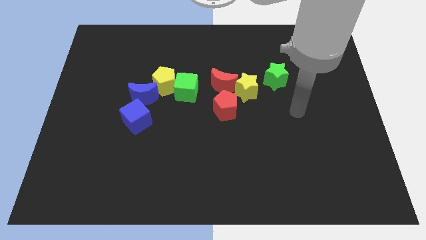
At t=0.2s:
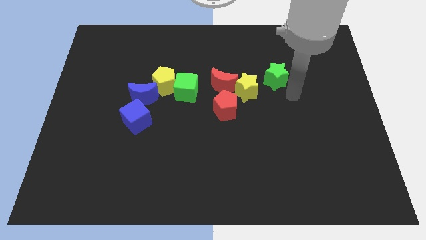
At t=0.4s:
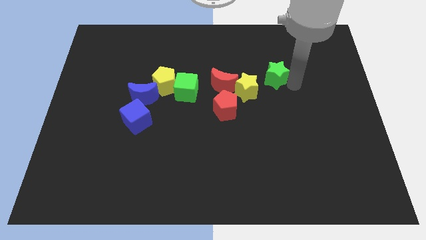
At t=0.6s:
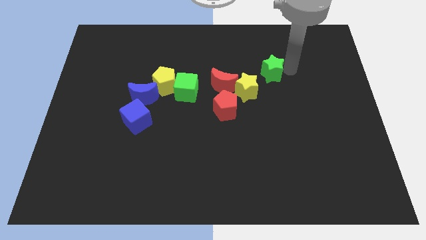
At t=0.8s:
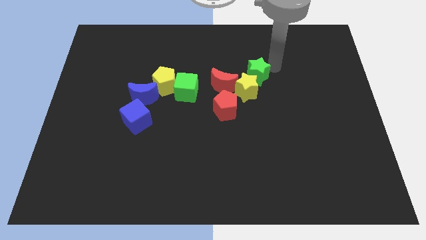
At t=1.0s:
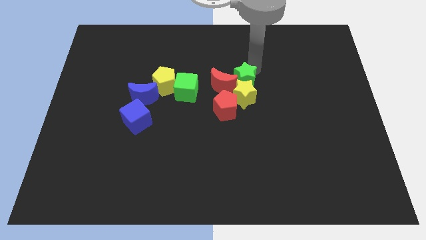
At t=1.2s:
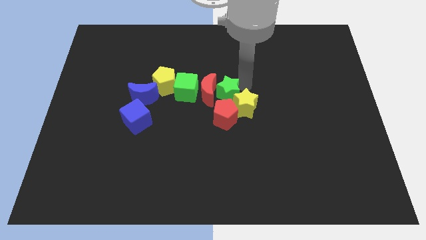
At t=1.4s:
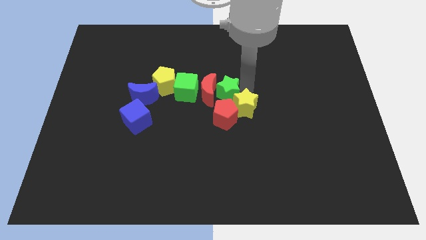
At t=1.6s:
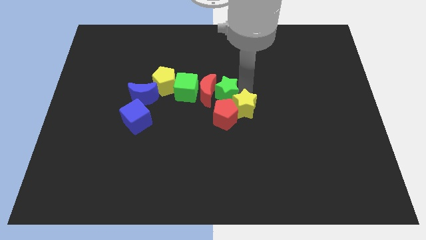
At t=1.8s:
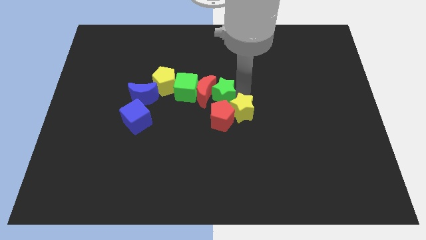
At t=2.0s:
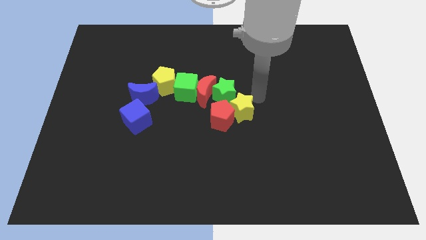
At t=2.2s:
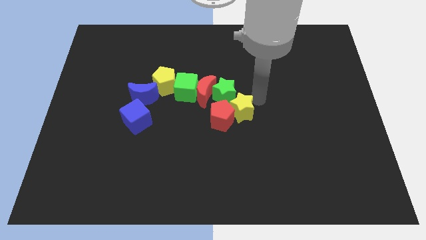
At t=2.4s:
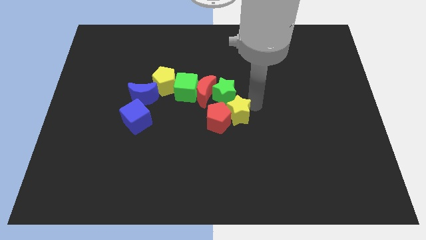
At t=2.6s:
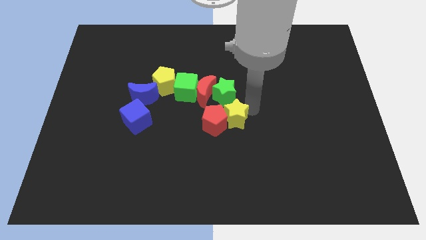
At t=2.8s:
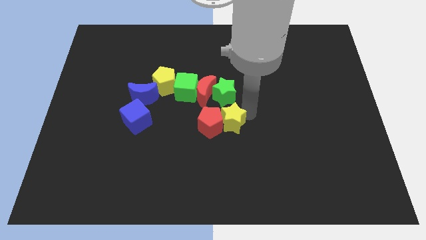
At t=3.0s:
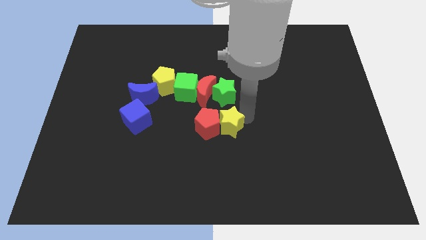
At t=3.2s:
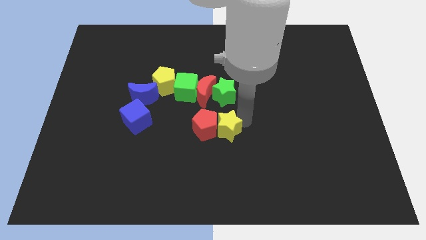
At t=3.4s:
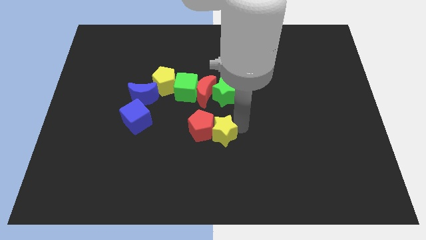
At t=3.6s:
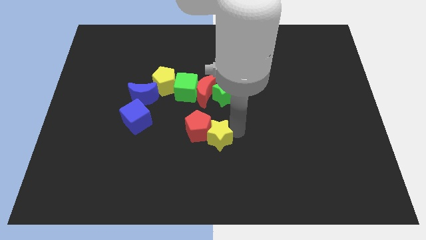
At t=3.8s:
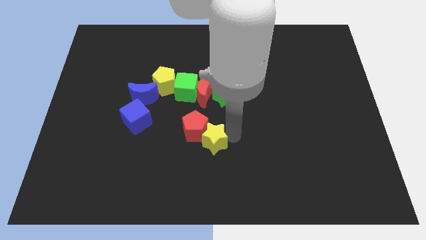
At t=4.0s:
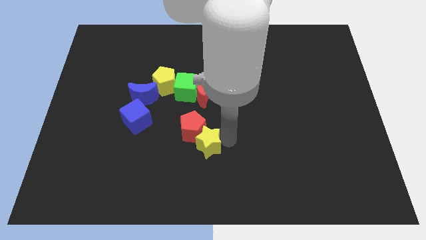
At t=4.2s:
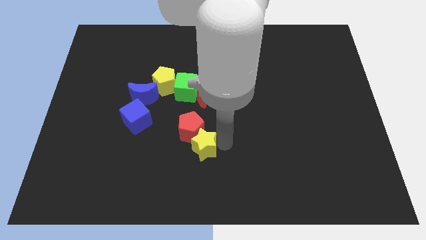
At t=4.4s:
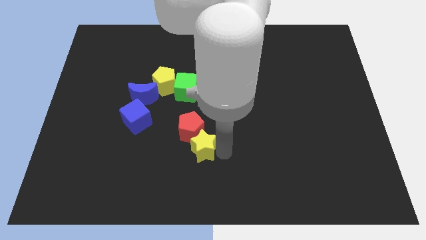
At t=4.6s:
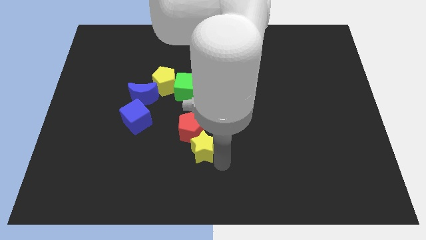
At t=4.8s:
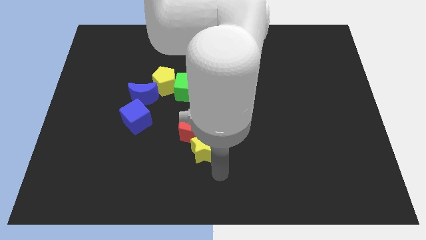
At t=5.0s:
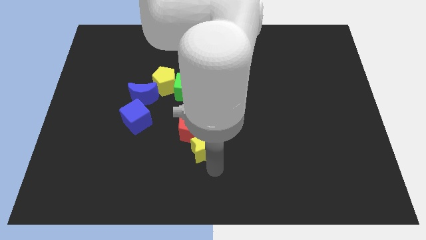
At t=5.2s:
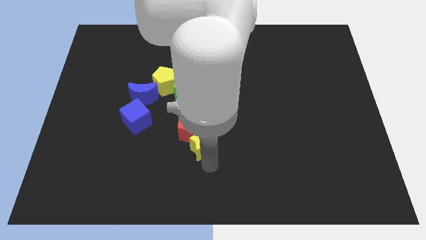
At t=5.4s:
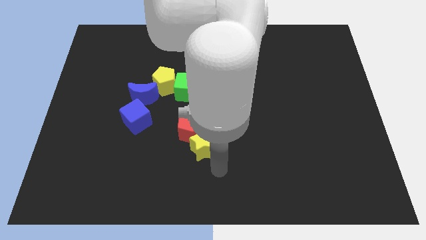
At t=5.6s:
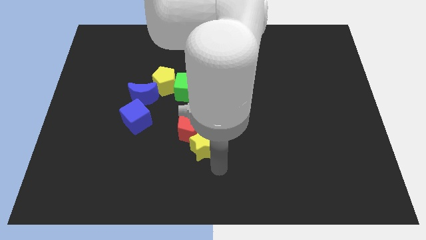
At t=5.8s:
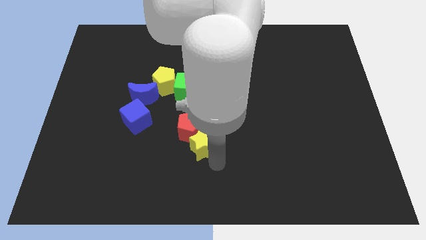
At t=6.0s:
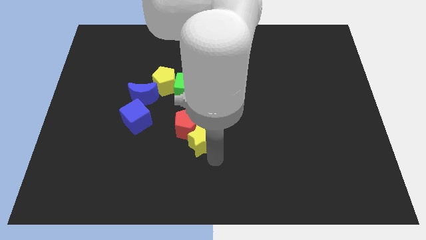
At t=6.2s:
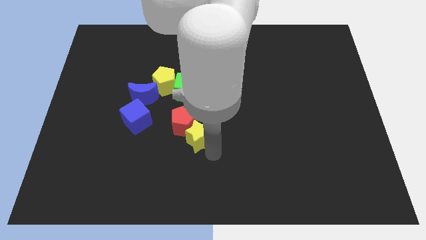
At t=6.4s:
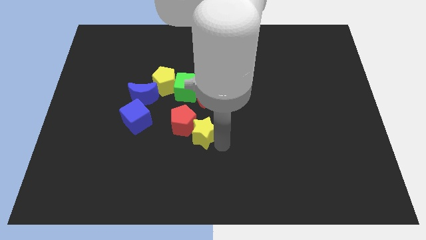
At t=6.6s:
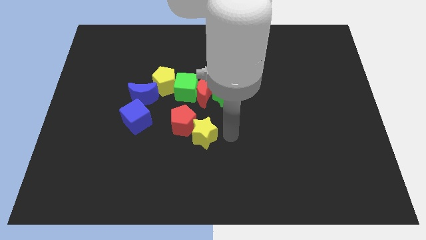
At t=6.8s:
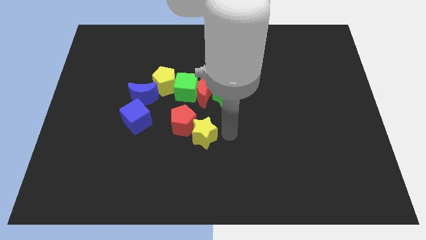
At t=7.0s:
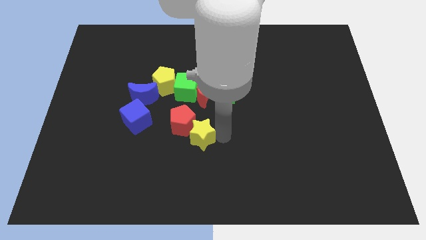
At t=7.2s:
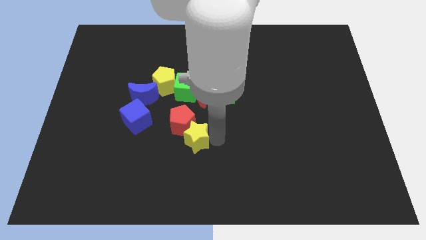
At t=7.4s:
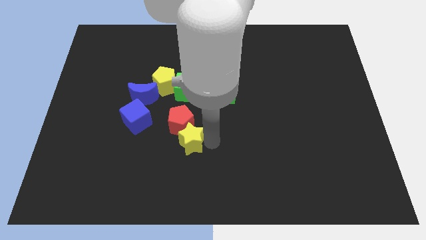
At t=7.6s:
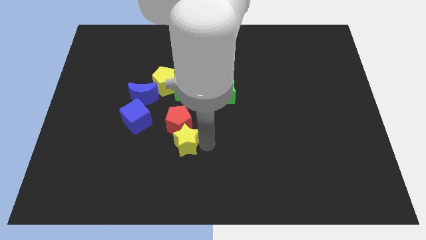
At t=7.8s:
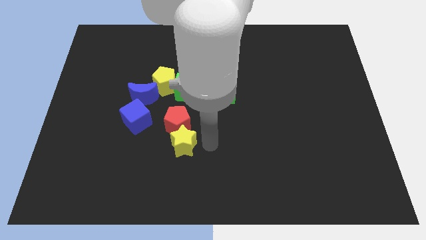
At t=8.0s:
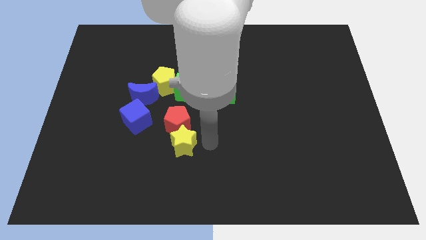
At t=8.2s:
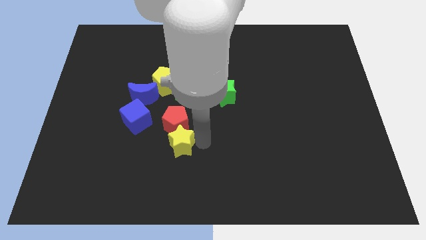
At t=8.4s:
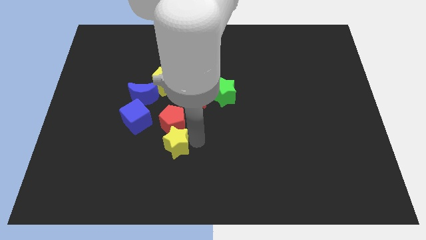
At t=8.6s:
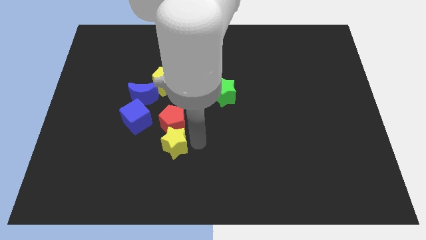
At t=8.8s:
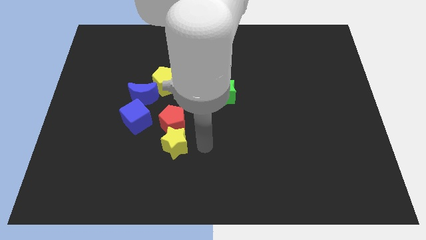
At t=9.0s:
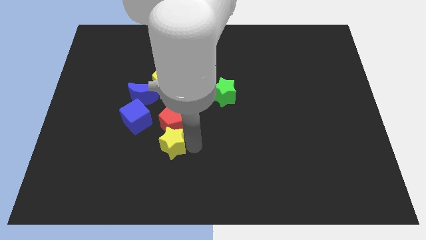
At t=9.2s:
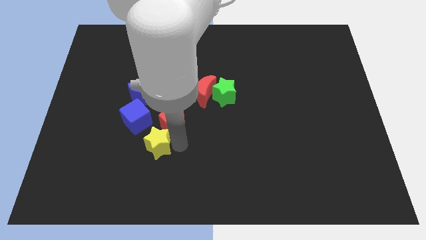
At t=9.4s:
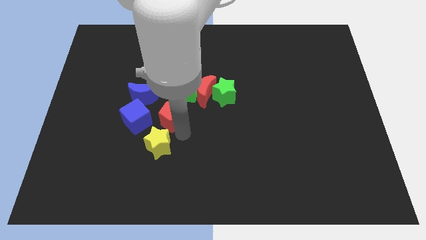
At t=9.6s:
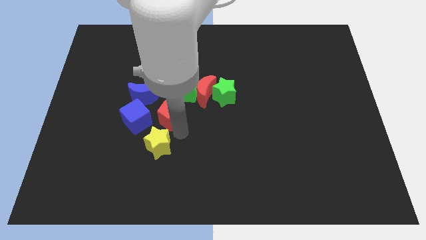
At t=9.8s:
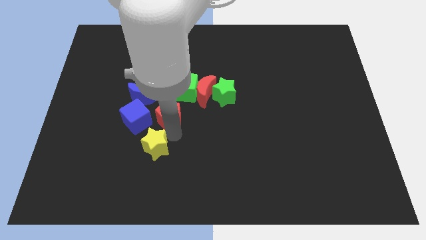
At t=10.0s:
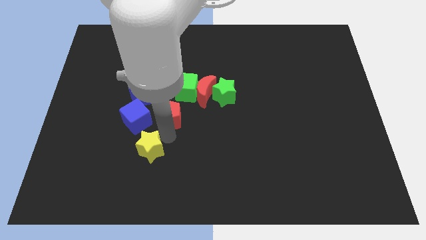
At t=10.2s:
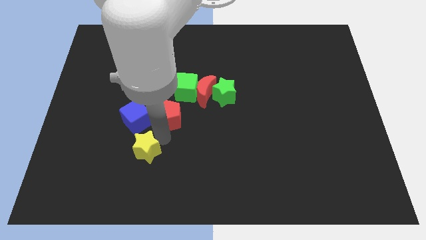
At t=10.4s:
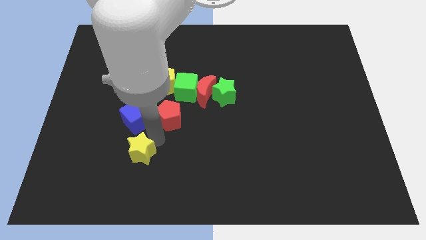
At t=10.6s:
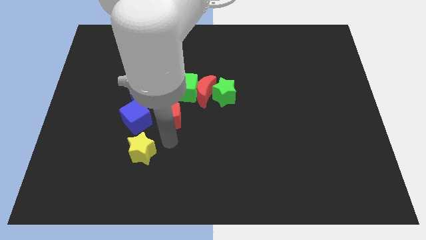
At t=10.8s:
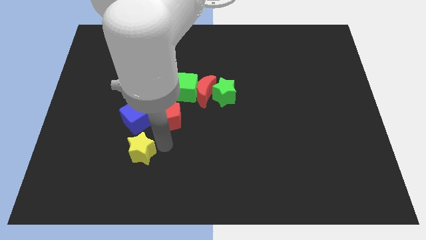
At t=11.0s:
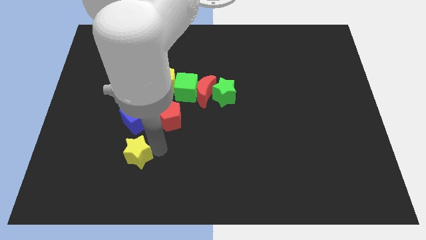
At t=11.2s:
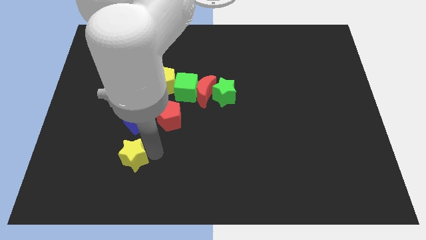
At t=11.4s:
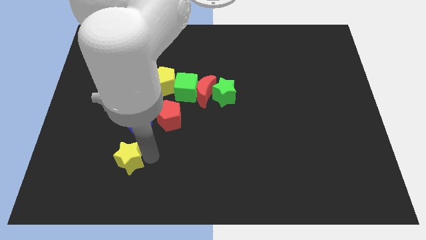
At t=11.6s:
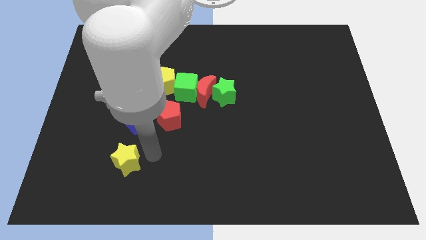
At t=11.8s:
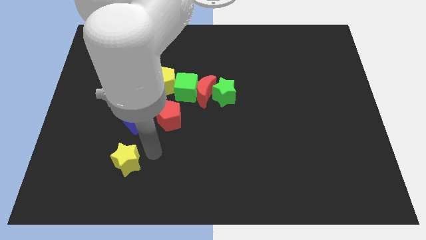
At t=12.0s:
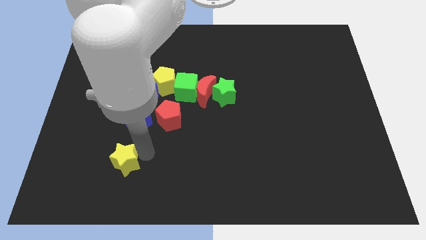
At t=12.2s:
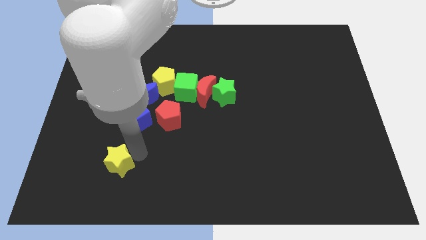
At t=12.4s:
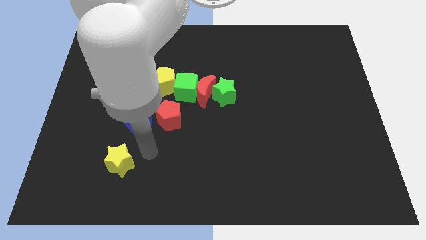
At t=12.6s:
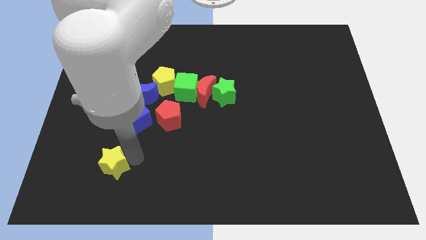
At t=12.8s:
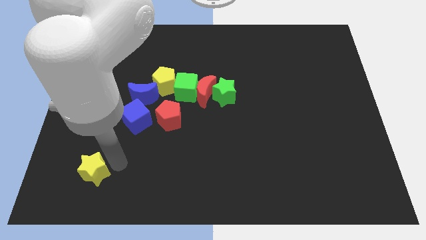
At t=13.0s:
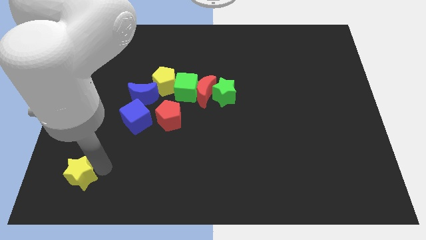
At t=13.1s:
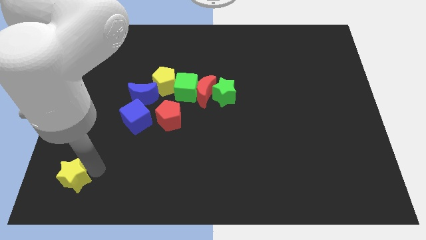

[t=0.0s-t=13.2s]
move the yellow star to the bottom left

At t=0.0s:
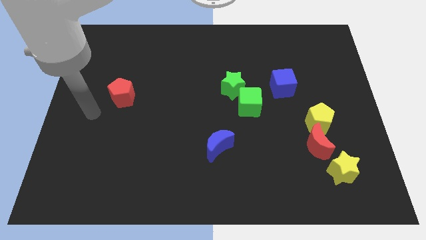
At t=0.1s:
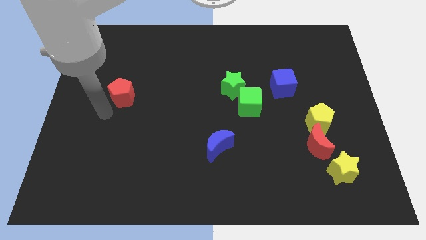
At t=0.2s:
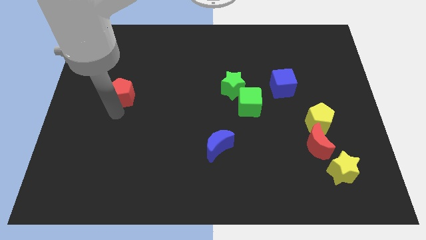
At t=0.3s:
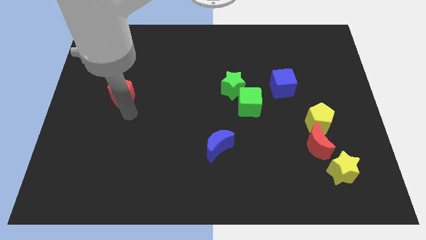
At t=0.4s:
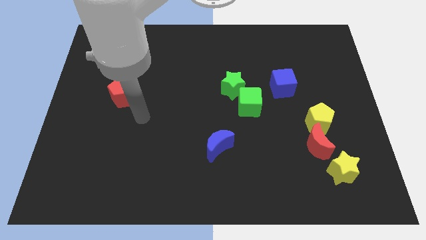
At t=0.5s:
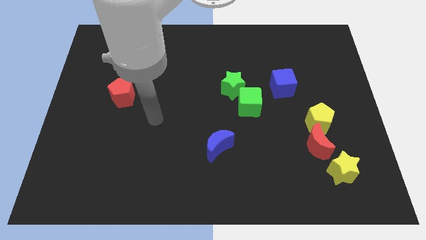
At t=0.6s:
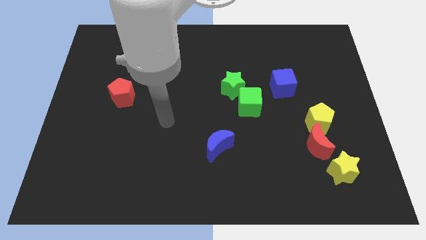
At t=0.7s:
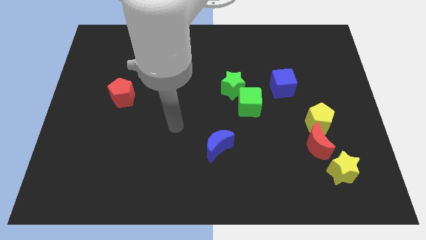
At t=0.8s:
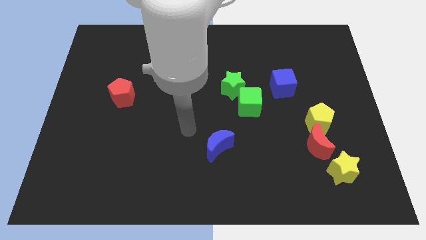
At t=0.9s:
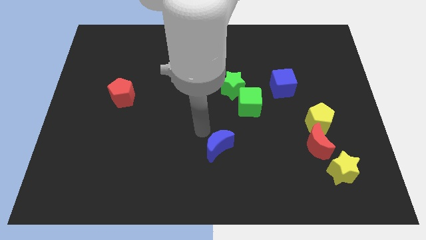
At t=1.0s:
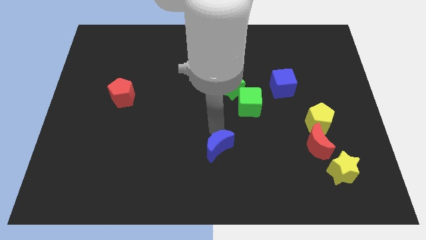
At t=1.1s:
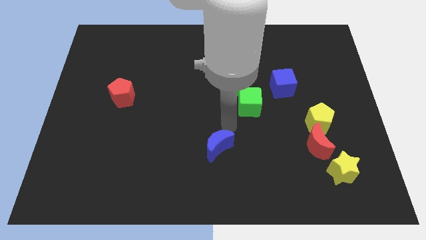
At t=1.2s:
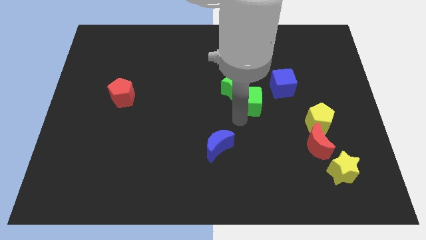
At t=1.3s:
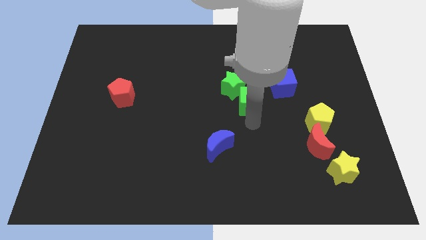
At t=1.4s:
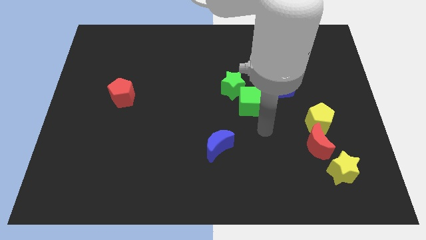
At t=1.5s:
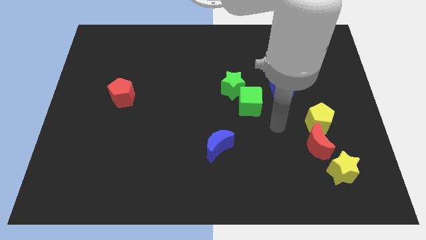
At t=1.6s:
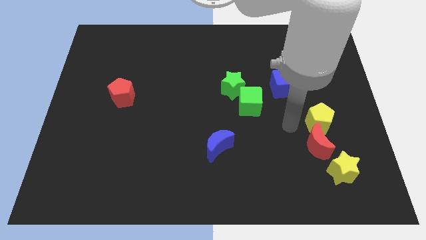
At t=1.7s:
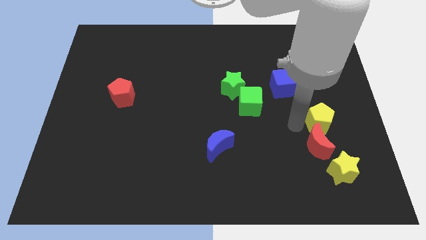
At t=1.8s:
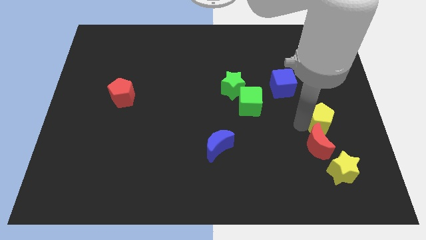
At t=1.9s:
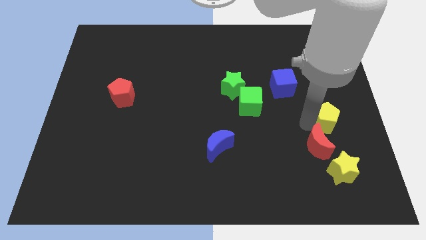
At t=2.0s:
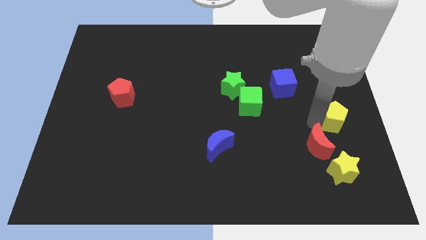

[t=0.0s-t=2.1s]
slide the yellow pentagon to the right side of the board
